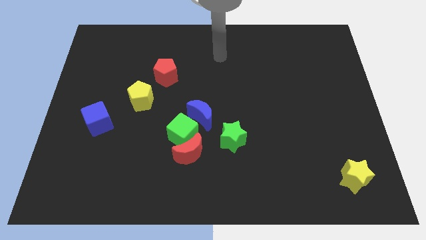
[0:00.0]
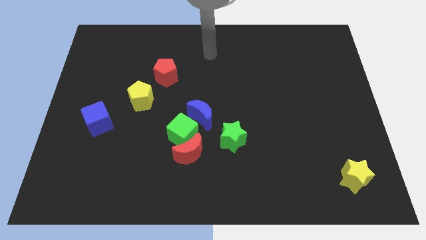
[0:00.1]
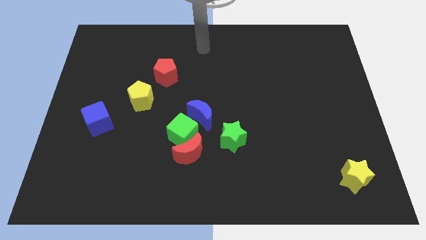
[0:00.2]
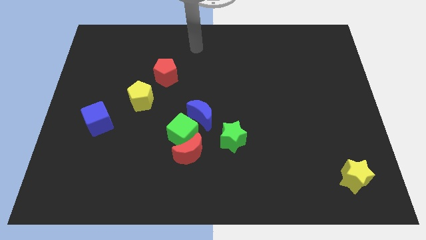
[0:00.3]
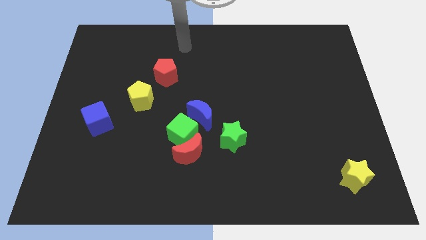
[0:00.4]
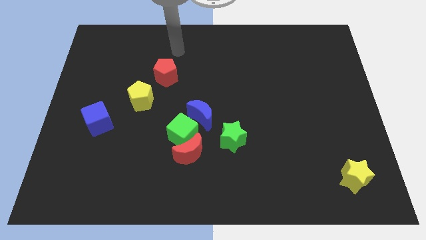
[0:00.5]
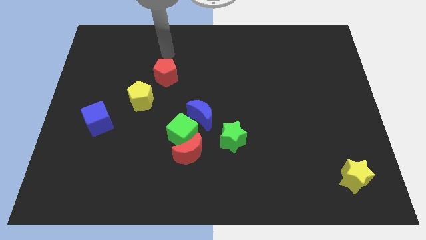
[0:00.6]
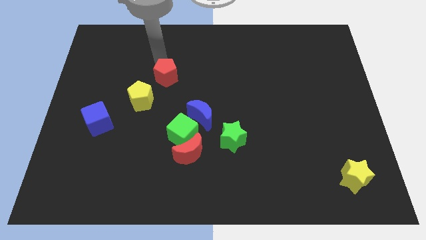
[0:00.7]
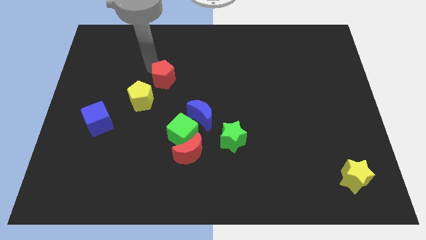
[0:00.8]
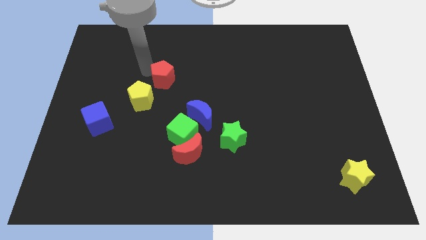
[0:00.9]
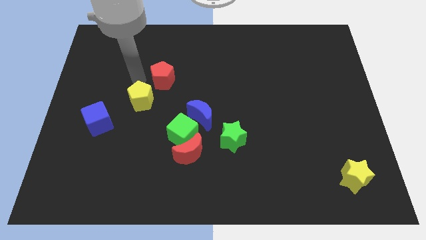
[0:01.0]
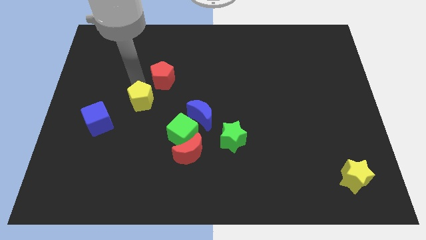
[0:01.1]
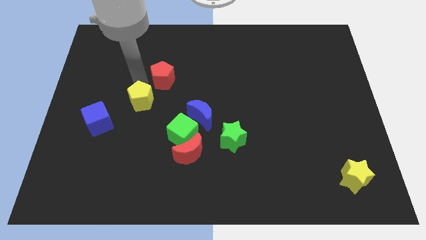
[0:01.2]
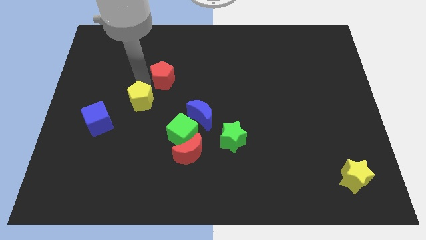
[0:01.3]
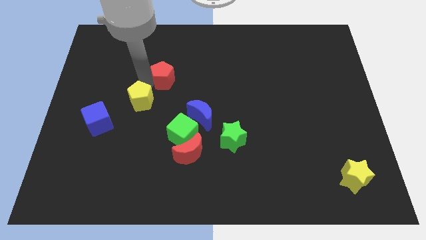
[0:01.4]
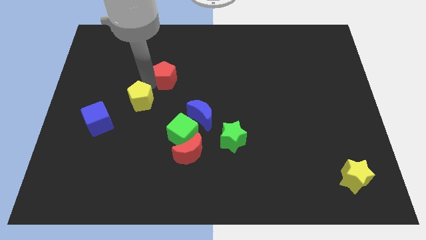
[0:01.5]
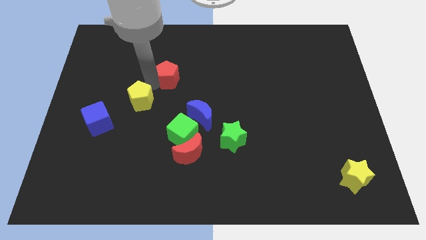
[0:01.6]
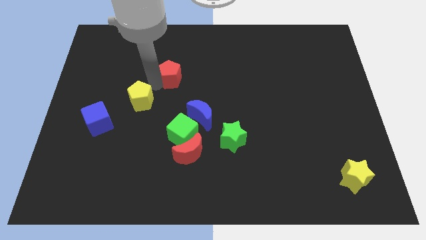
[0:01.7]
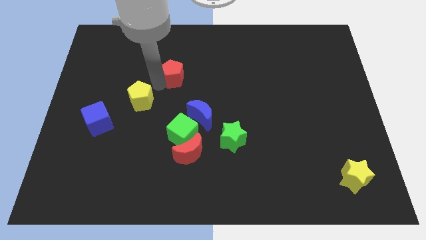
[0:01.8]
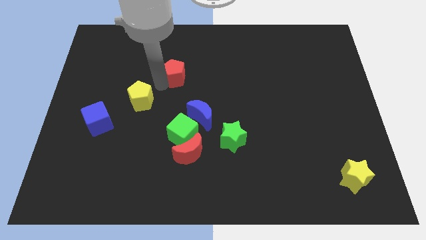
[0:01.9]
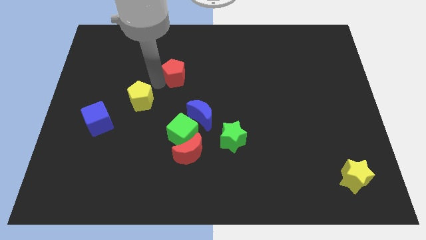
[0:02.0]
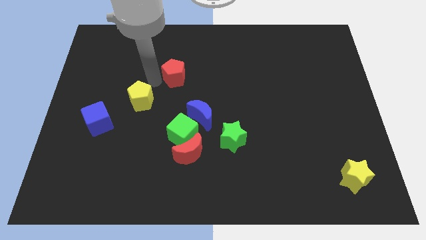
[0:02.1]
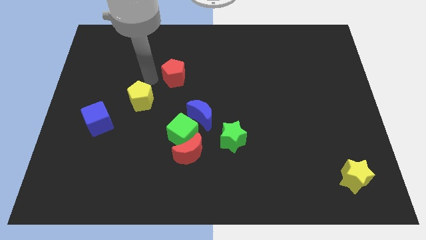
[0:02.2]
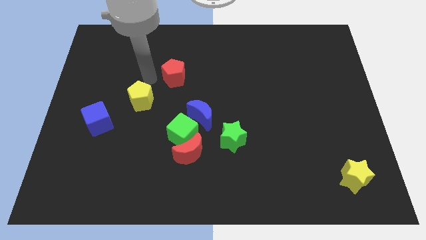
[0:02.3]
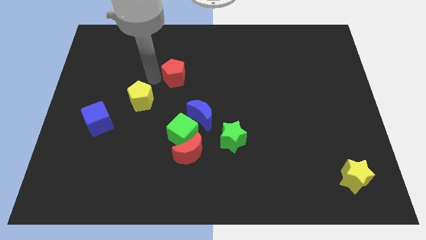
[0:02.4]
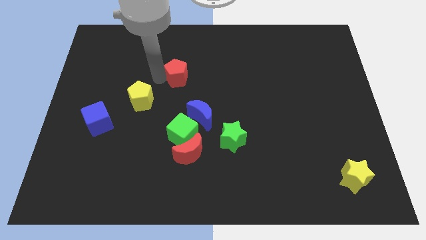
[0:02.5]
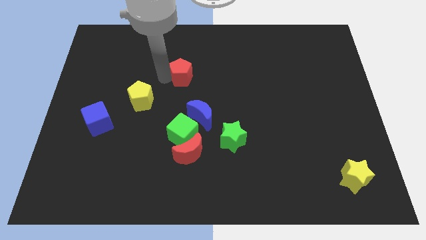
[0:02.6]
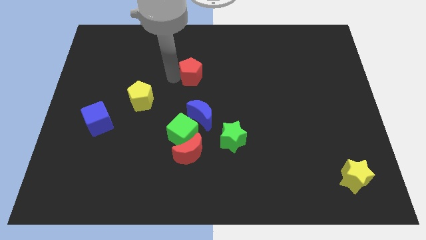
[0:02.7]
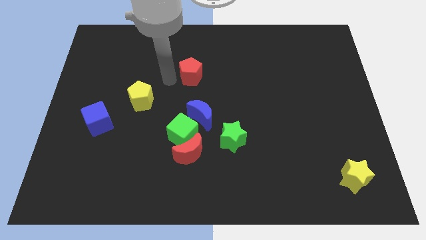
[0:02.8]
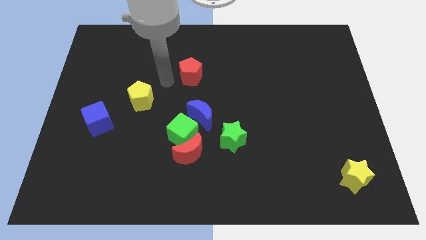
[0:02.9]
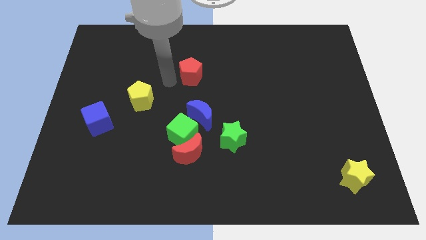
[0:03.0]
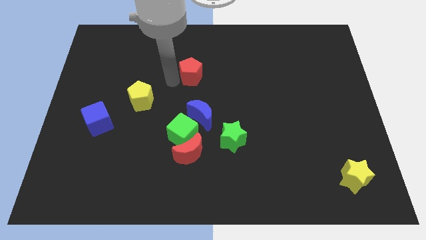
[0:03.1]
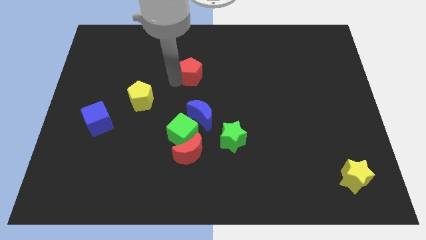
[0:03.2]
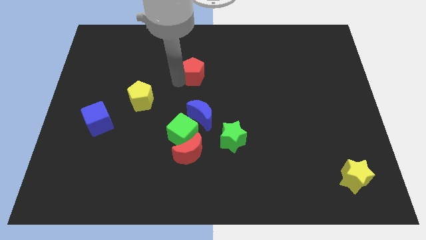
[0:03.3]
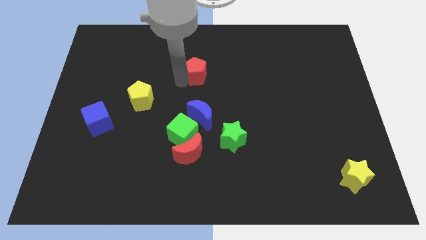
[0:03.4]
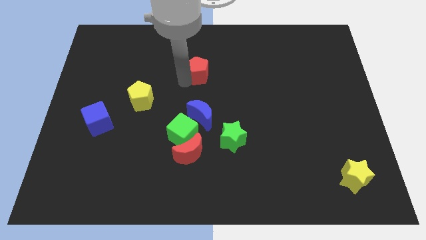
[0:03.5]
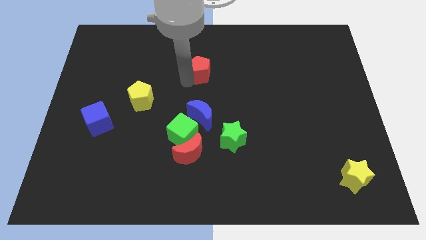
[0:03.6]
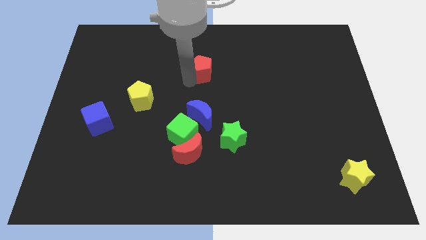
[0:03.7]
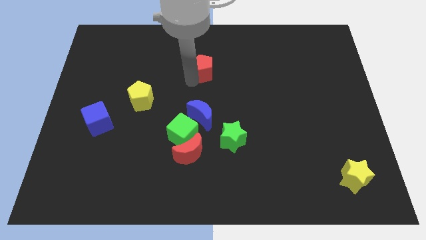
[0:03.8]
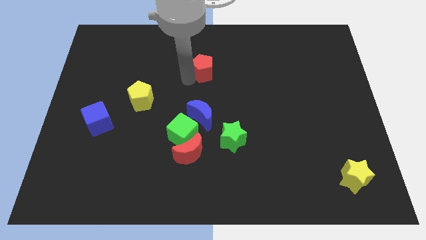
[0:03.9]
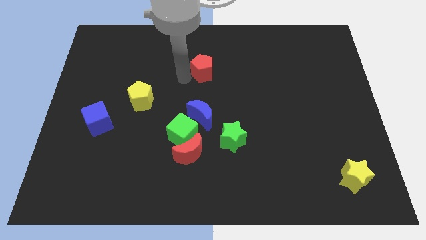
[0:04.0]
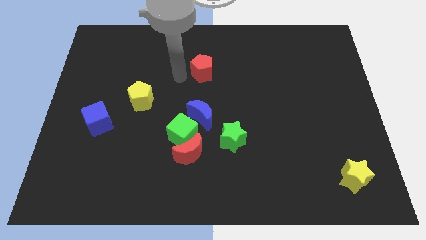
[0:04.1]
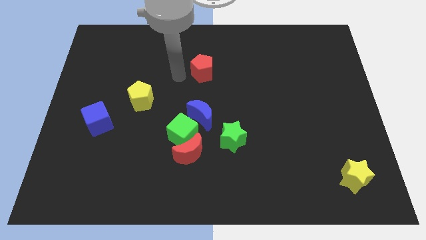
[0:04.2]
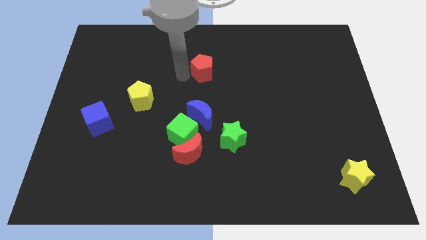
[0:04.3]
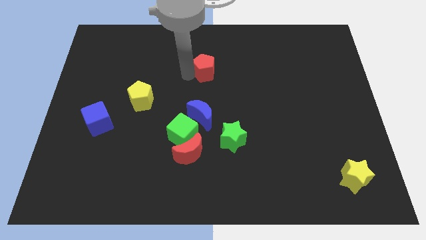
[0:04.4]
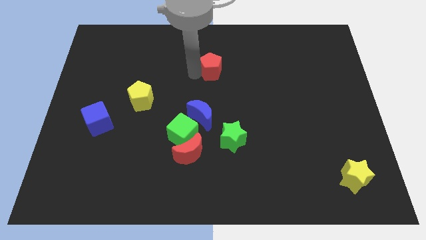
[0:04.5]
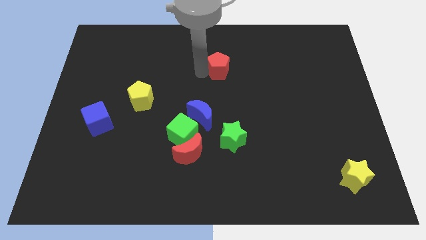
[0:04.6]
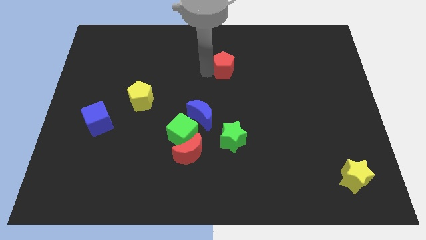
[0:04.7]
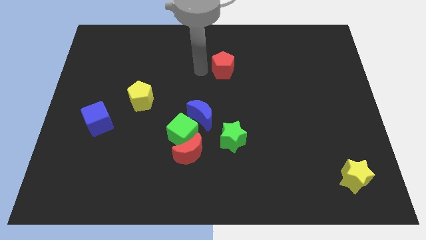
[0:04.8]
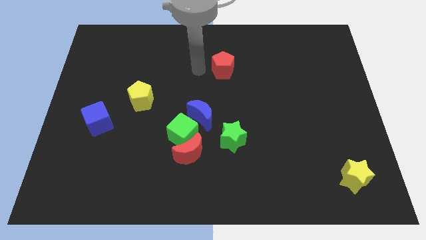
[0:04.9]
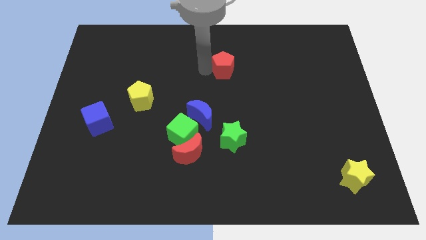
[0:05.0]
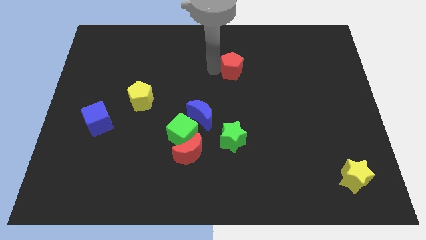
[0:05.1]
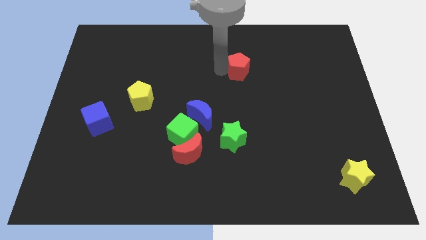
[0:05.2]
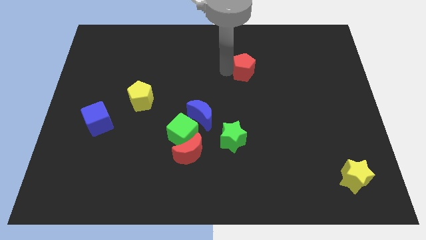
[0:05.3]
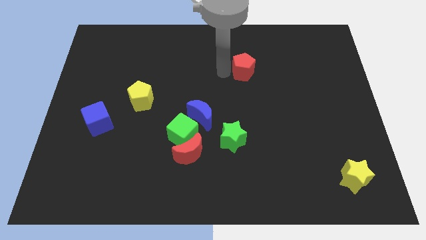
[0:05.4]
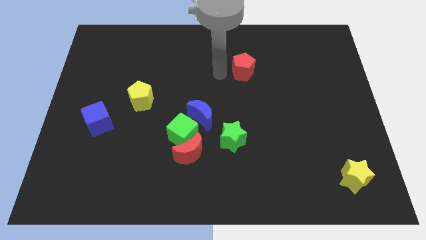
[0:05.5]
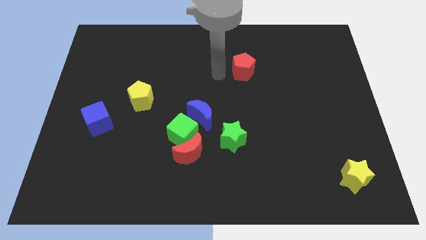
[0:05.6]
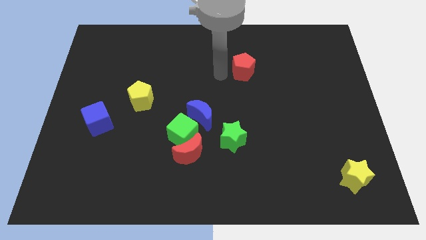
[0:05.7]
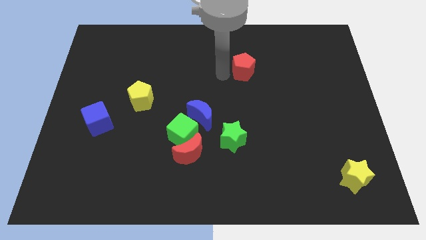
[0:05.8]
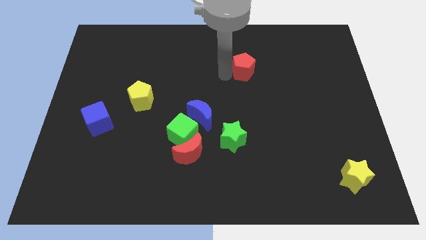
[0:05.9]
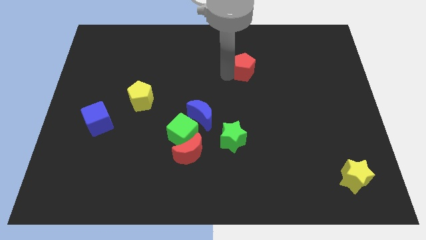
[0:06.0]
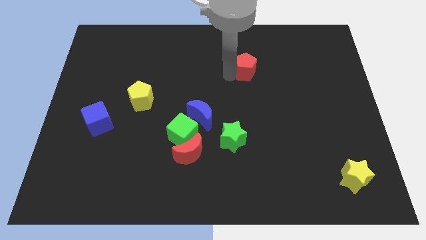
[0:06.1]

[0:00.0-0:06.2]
slide the red pentagon right

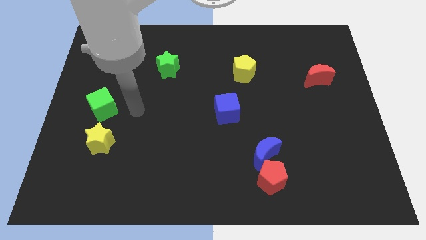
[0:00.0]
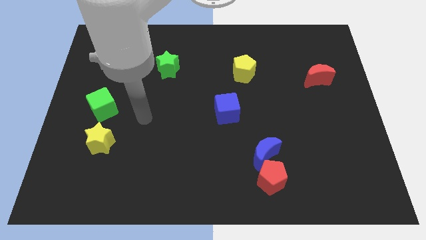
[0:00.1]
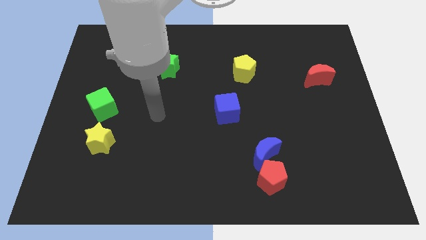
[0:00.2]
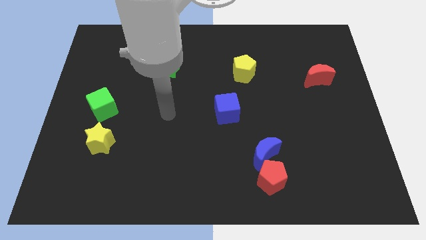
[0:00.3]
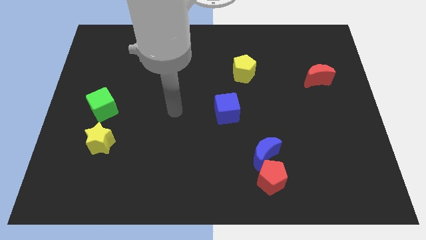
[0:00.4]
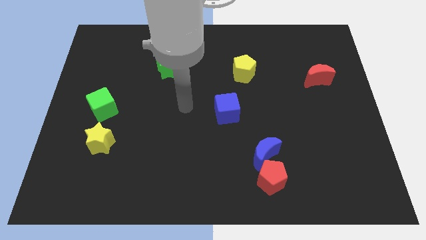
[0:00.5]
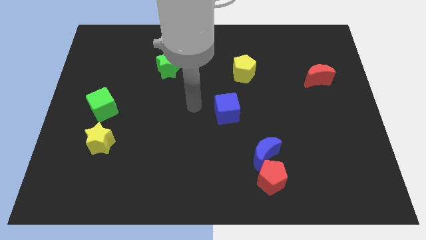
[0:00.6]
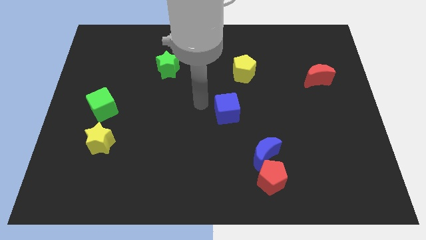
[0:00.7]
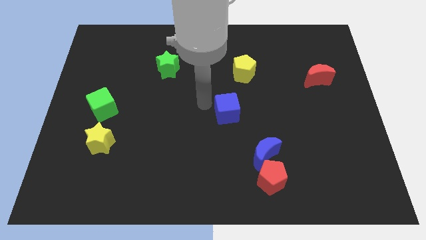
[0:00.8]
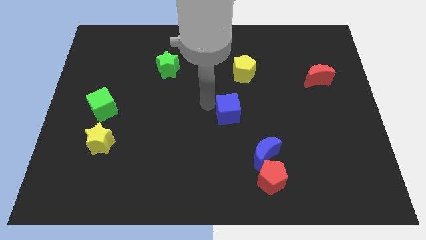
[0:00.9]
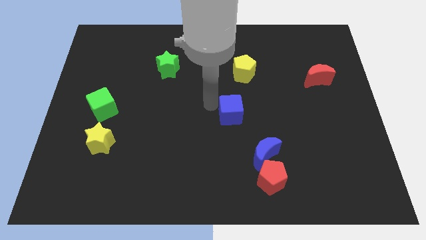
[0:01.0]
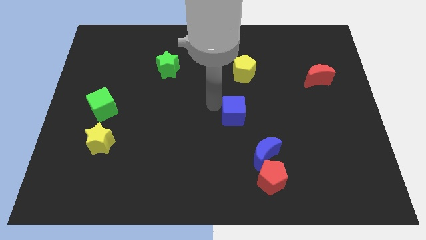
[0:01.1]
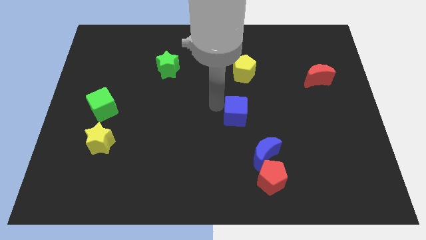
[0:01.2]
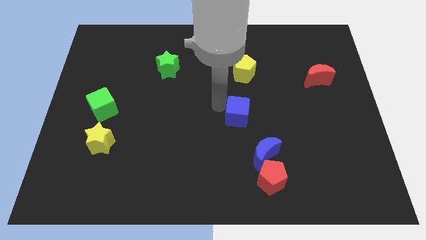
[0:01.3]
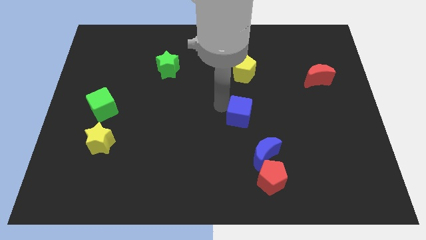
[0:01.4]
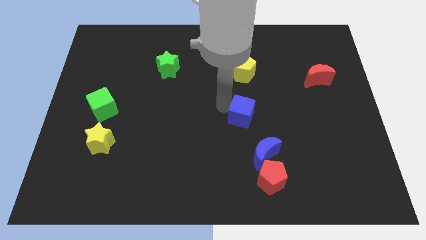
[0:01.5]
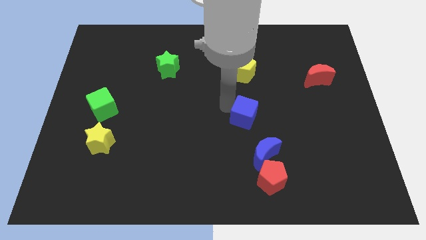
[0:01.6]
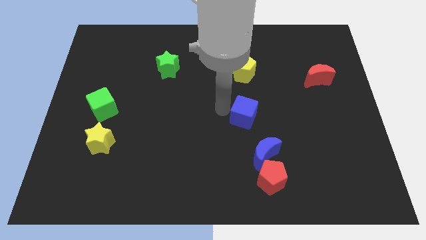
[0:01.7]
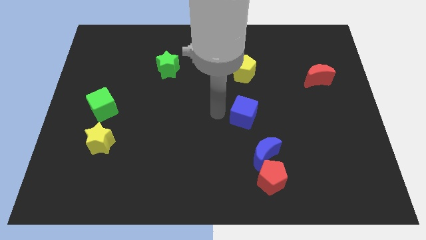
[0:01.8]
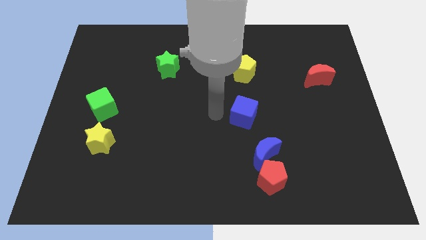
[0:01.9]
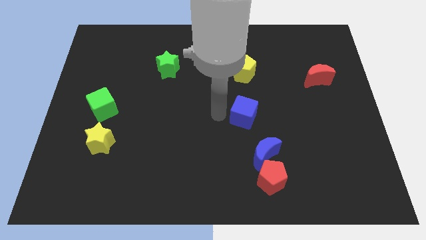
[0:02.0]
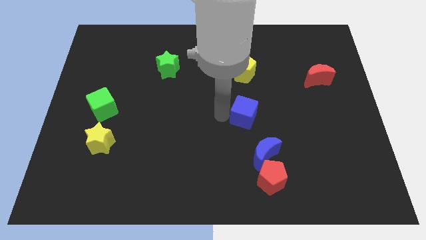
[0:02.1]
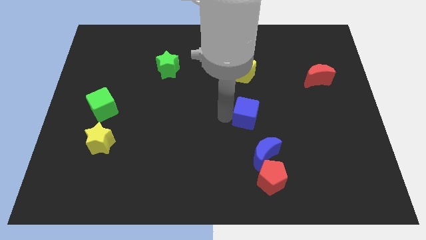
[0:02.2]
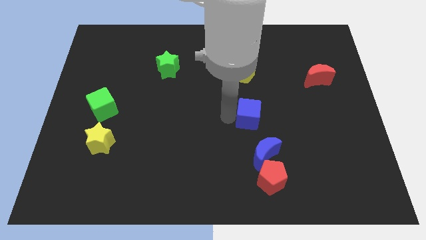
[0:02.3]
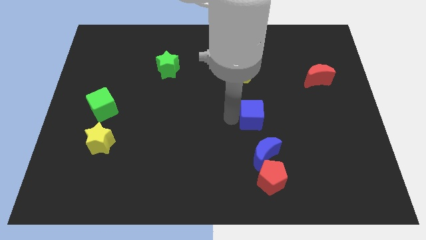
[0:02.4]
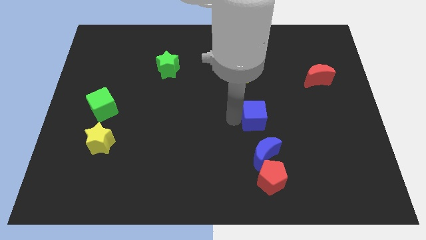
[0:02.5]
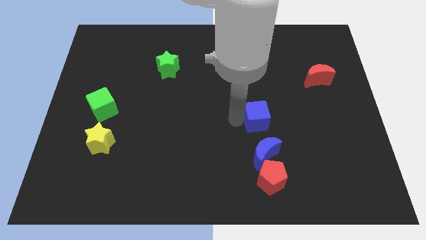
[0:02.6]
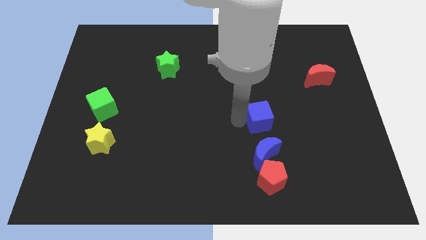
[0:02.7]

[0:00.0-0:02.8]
push the blue cube right slightly
